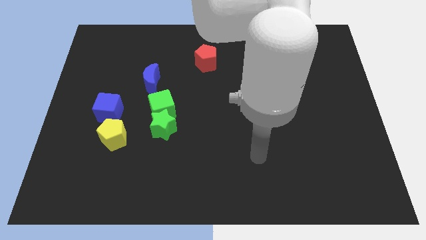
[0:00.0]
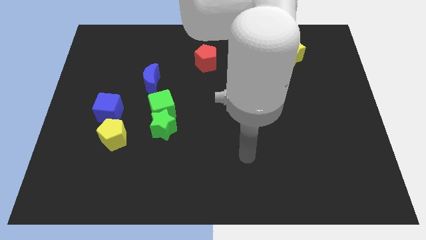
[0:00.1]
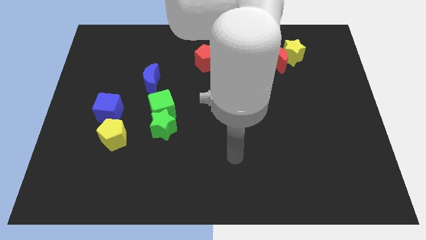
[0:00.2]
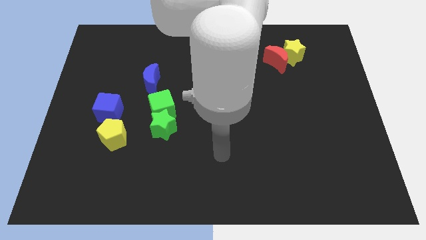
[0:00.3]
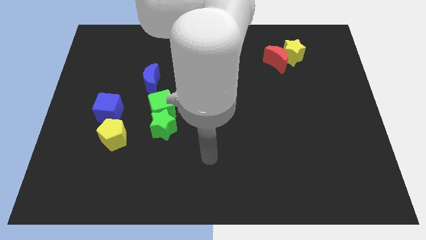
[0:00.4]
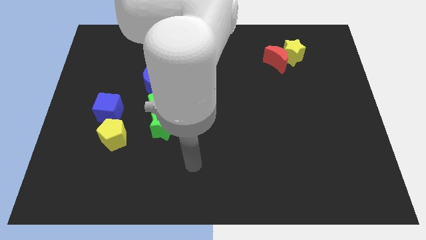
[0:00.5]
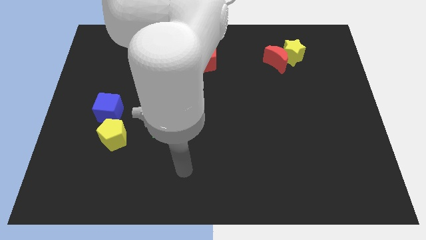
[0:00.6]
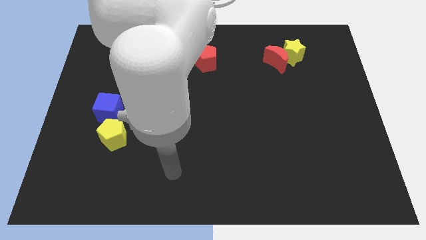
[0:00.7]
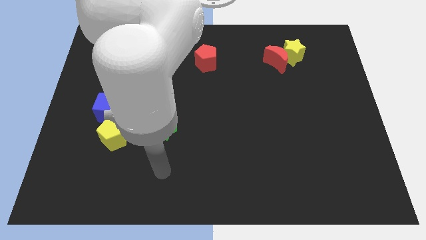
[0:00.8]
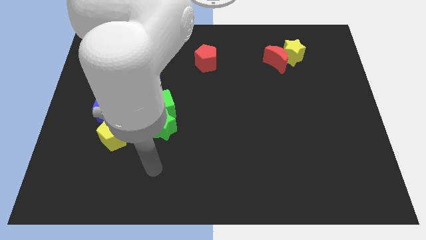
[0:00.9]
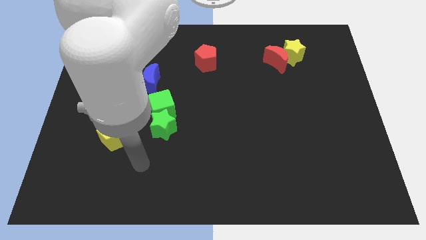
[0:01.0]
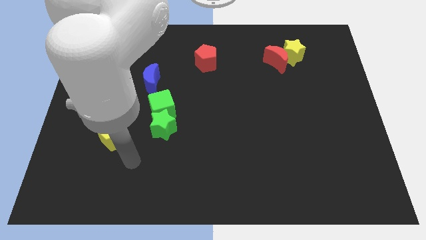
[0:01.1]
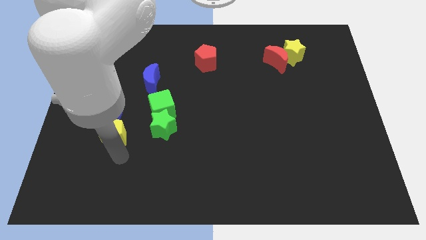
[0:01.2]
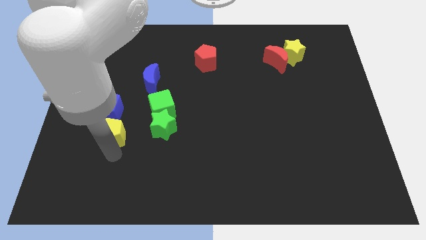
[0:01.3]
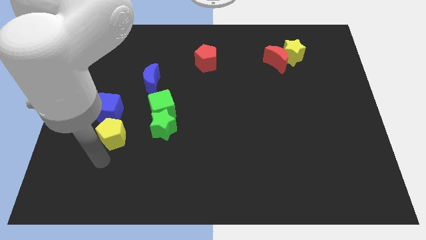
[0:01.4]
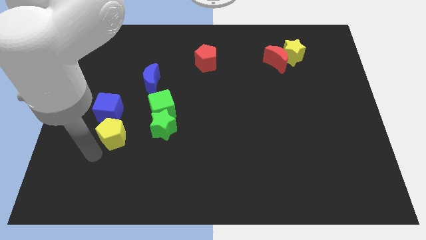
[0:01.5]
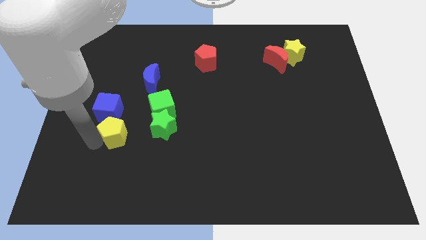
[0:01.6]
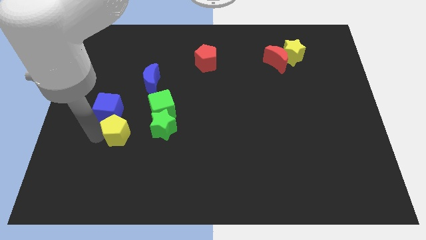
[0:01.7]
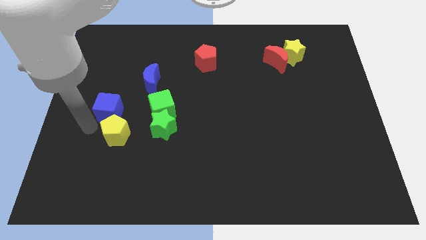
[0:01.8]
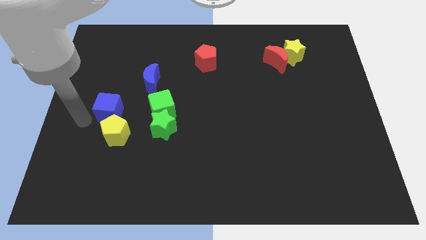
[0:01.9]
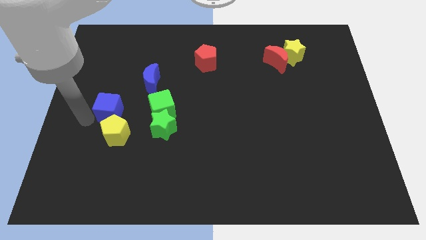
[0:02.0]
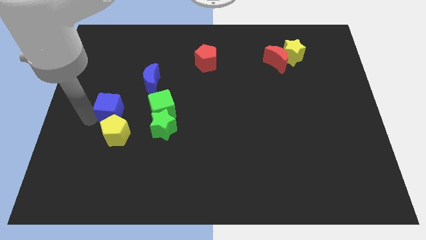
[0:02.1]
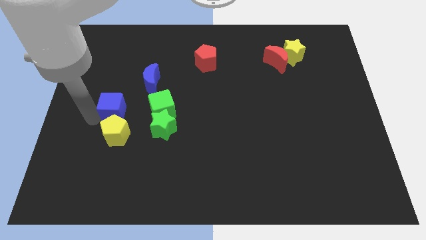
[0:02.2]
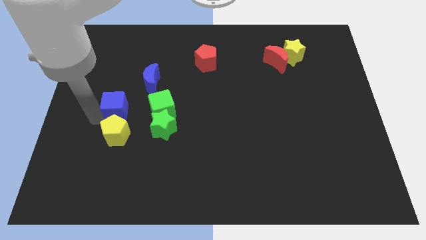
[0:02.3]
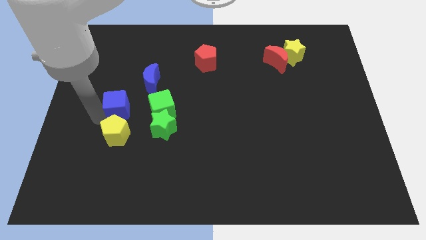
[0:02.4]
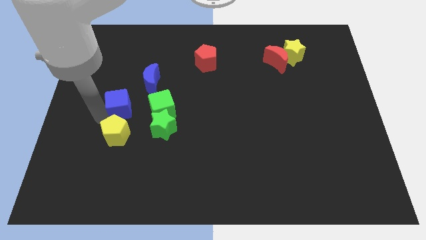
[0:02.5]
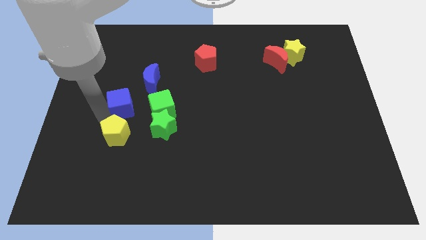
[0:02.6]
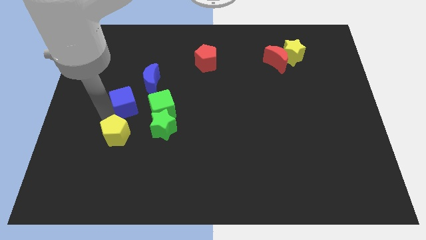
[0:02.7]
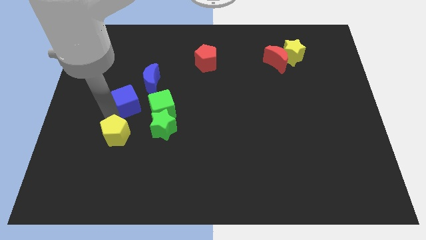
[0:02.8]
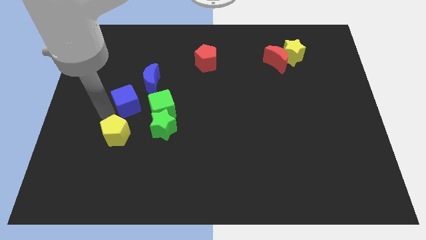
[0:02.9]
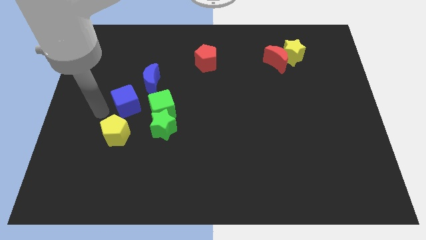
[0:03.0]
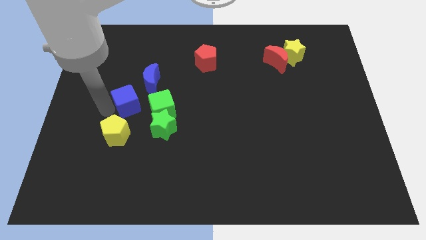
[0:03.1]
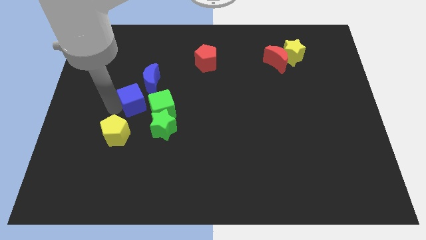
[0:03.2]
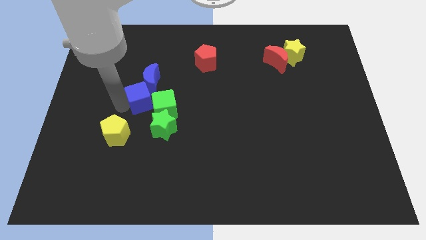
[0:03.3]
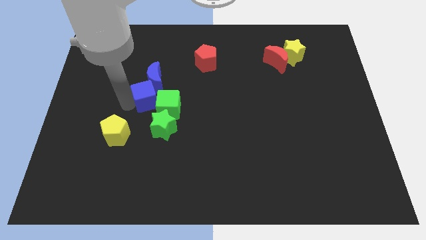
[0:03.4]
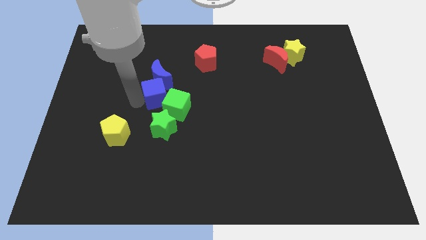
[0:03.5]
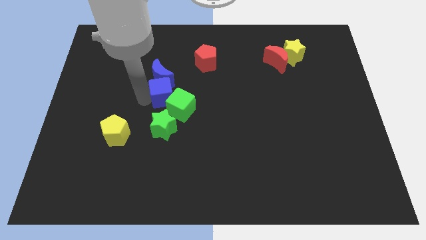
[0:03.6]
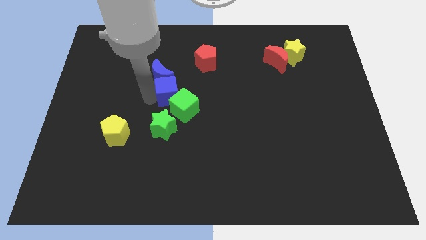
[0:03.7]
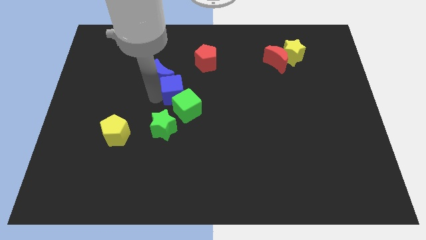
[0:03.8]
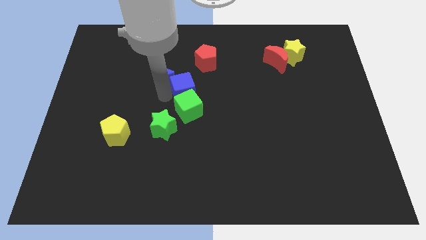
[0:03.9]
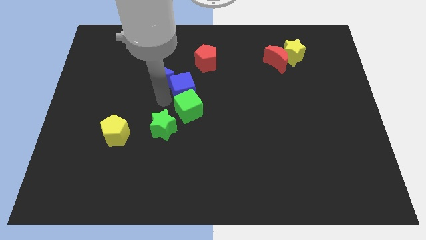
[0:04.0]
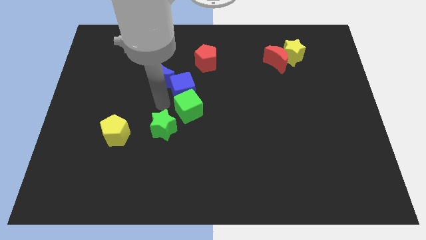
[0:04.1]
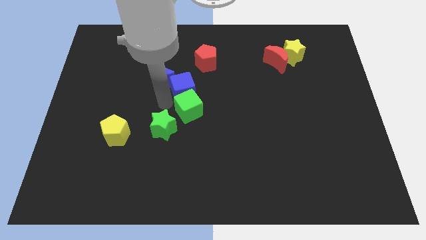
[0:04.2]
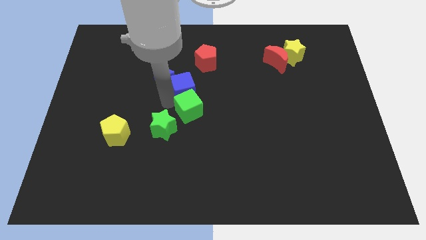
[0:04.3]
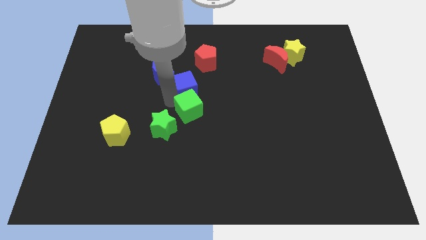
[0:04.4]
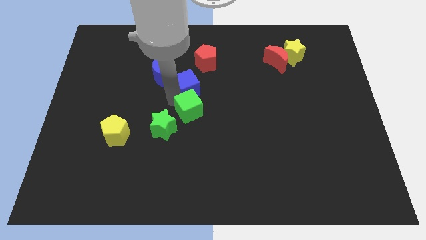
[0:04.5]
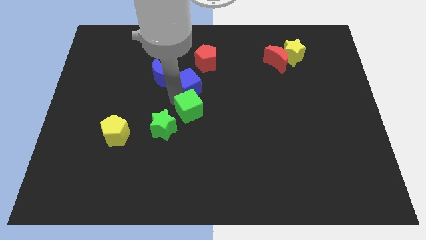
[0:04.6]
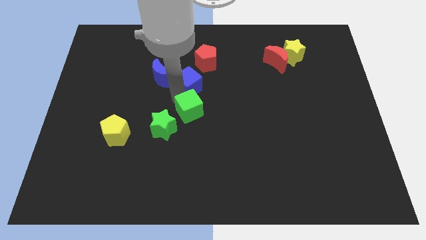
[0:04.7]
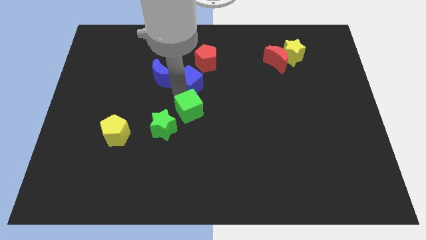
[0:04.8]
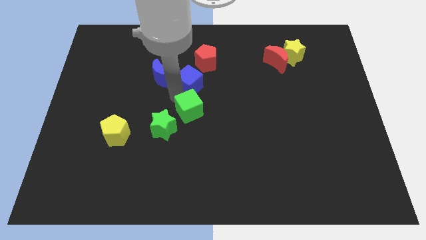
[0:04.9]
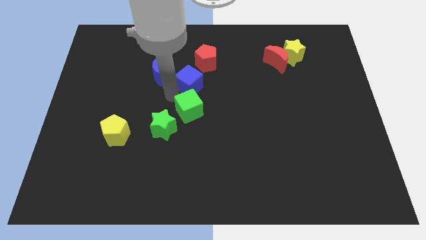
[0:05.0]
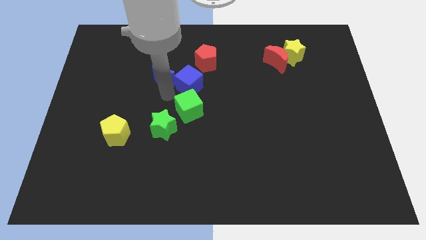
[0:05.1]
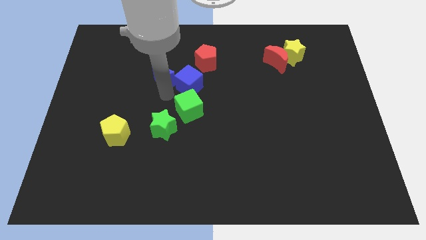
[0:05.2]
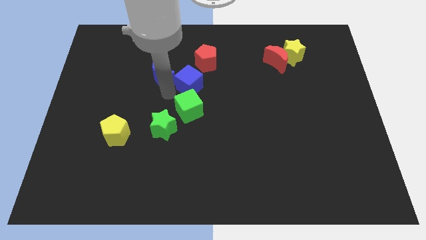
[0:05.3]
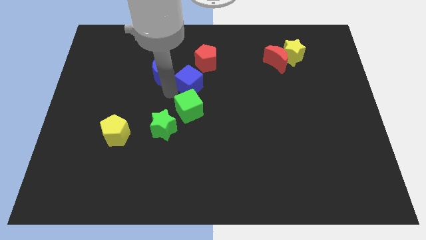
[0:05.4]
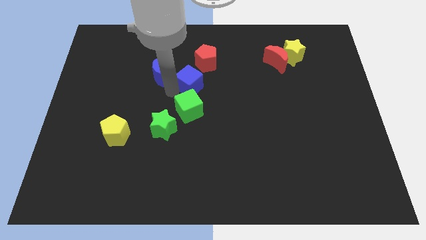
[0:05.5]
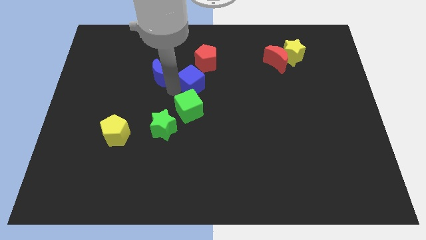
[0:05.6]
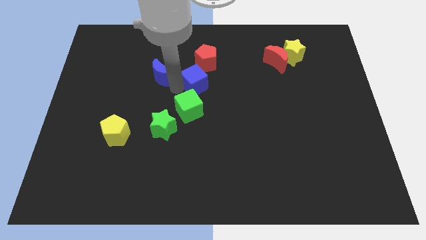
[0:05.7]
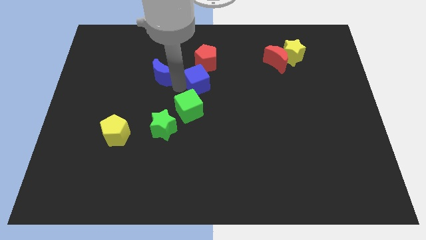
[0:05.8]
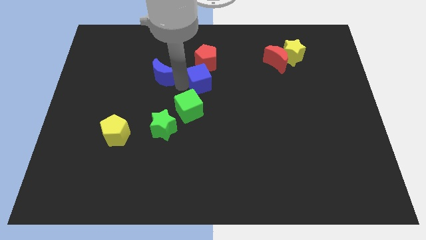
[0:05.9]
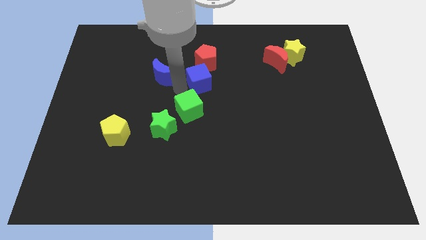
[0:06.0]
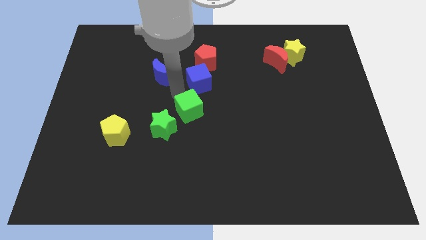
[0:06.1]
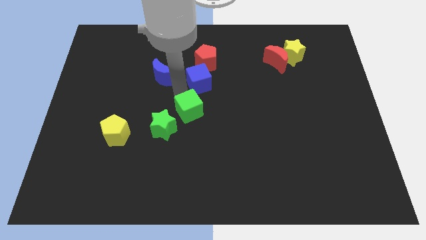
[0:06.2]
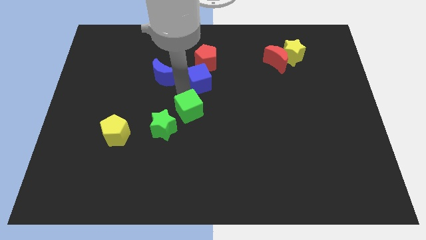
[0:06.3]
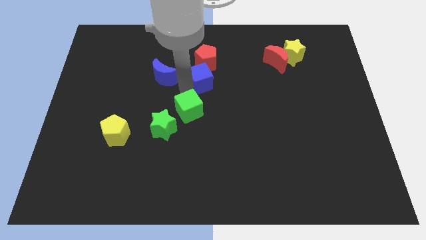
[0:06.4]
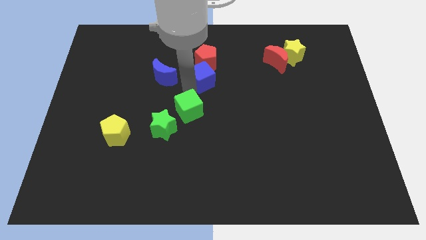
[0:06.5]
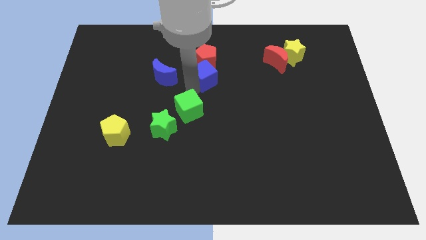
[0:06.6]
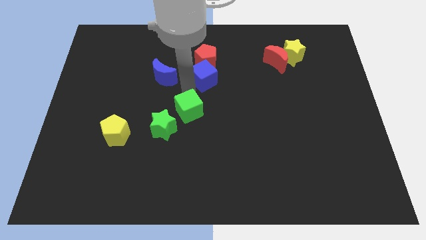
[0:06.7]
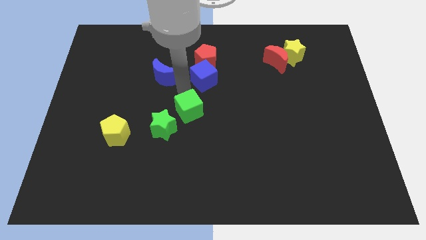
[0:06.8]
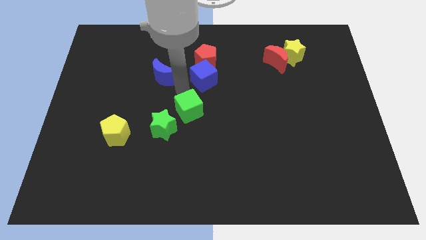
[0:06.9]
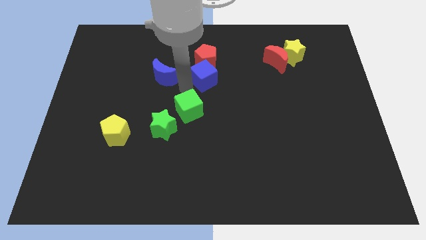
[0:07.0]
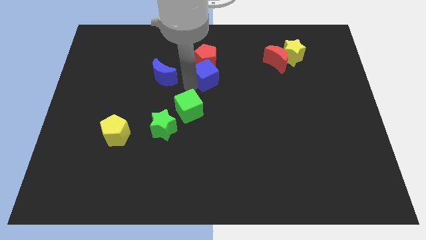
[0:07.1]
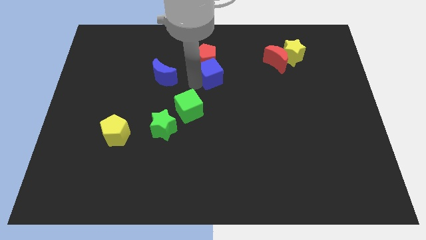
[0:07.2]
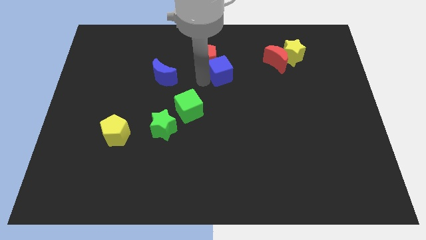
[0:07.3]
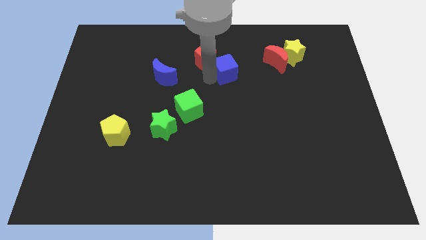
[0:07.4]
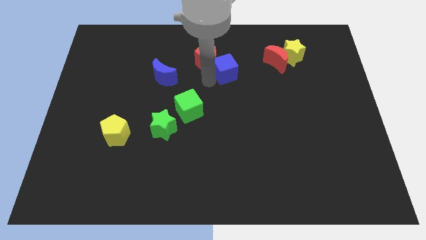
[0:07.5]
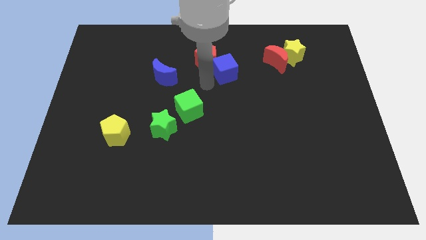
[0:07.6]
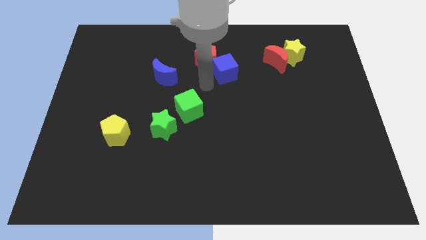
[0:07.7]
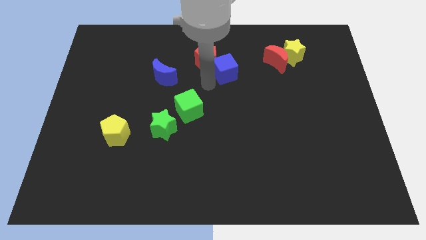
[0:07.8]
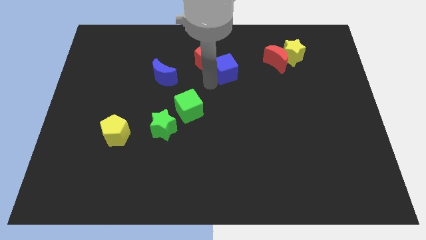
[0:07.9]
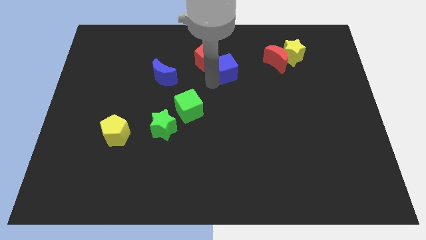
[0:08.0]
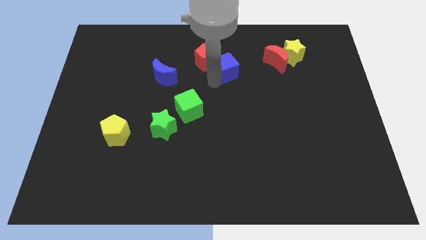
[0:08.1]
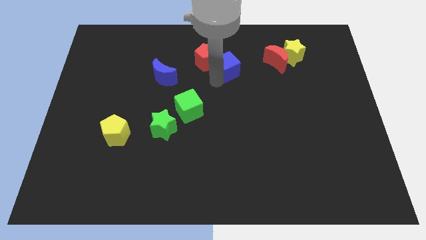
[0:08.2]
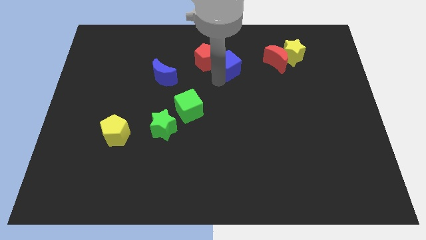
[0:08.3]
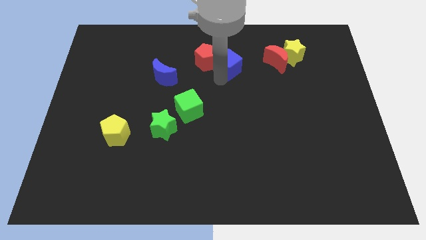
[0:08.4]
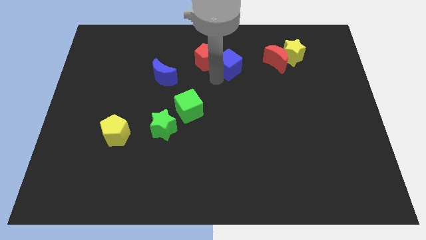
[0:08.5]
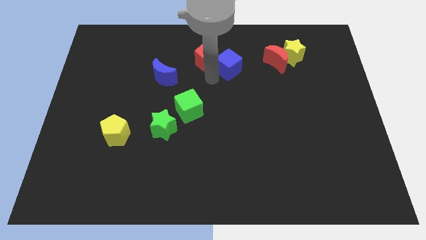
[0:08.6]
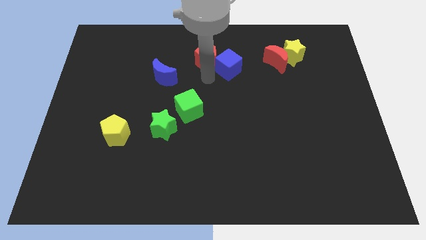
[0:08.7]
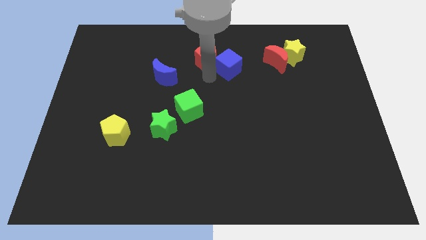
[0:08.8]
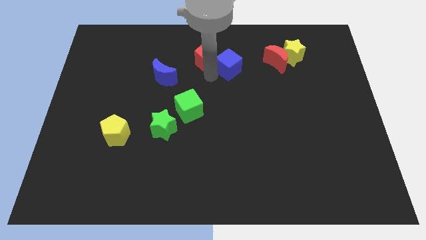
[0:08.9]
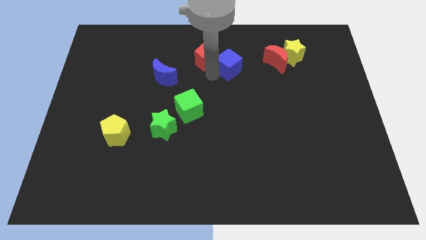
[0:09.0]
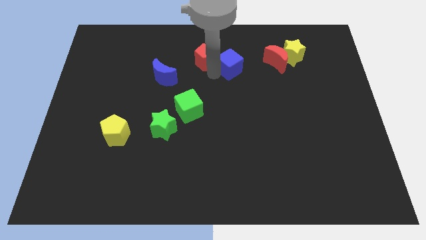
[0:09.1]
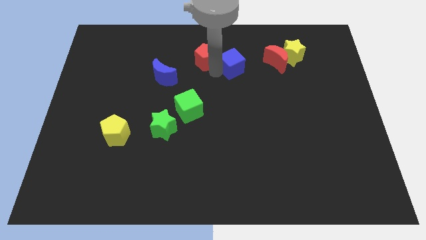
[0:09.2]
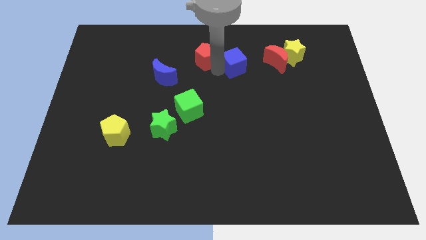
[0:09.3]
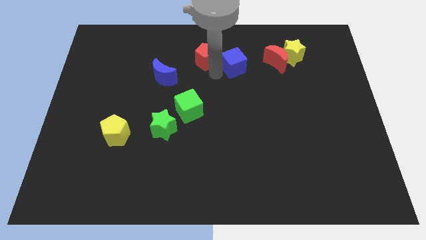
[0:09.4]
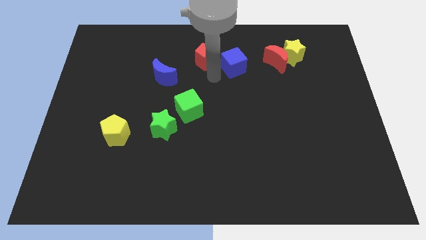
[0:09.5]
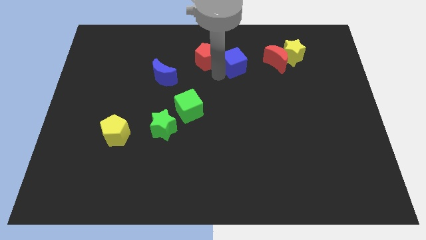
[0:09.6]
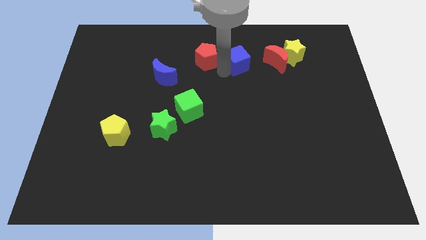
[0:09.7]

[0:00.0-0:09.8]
push the blue cube just left of the yellow star
